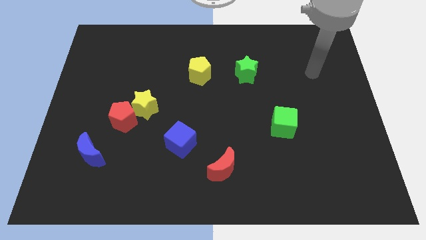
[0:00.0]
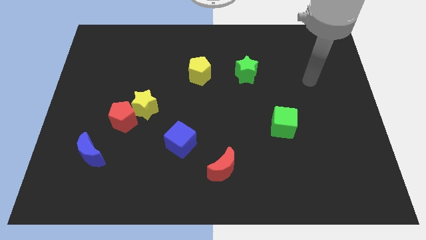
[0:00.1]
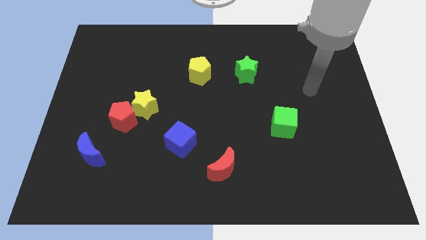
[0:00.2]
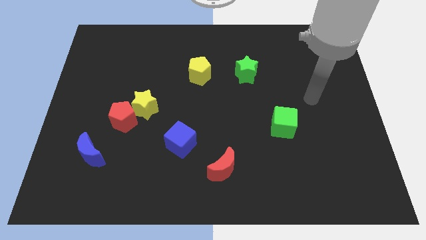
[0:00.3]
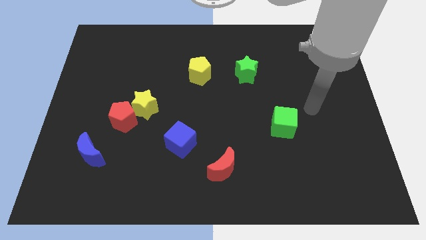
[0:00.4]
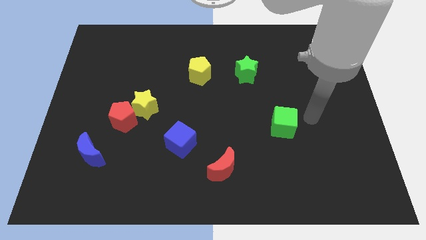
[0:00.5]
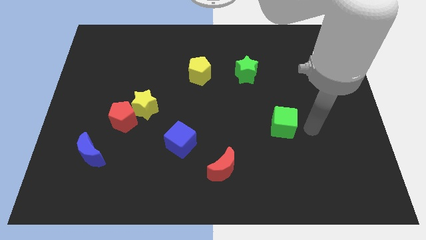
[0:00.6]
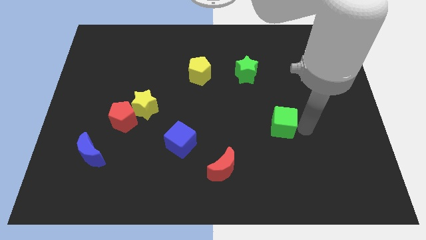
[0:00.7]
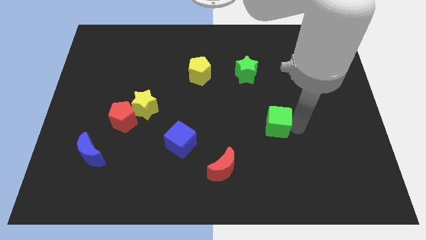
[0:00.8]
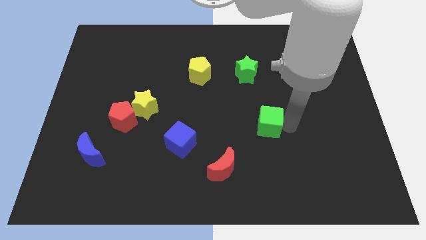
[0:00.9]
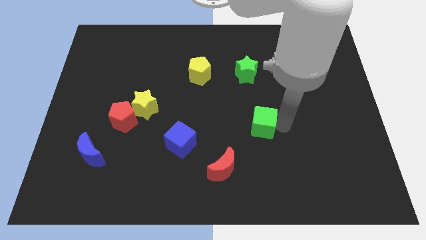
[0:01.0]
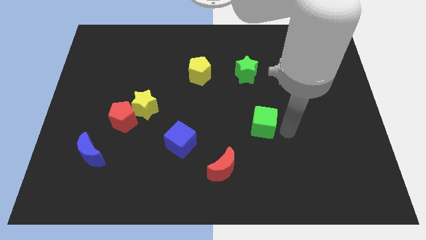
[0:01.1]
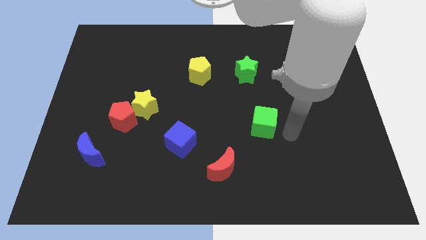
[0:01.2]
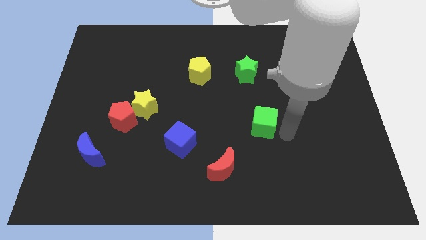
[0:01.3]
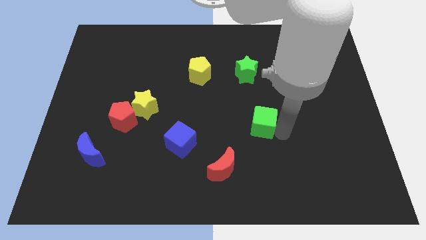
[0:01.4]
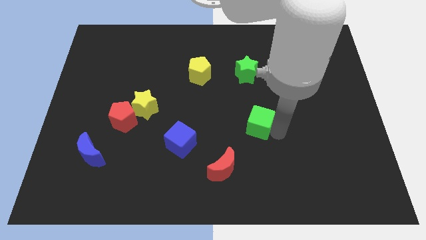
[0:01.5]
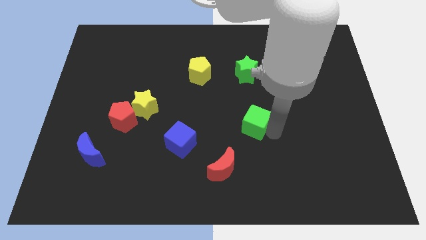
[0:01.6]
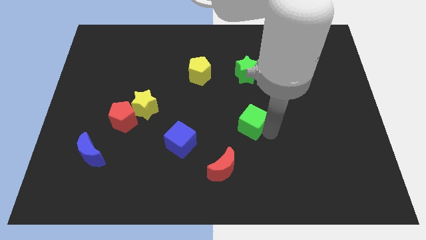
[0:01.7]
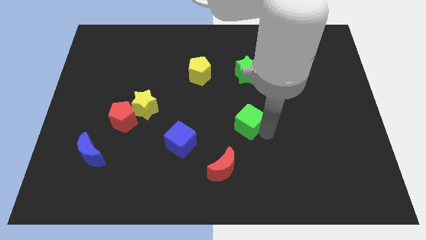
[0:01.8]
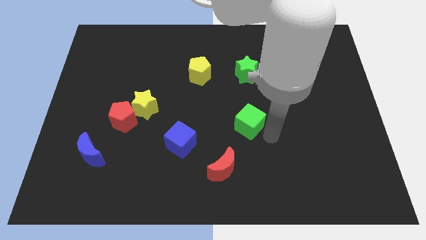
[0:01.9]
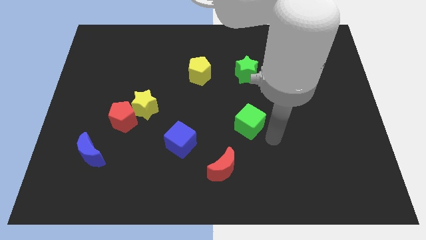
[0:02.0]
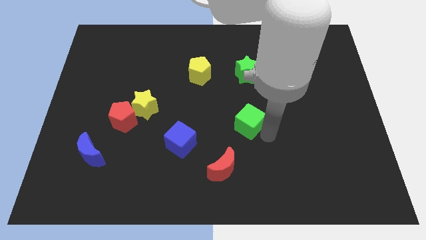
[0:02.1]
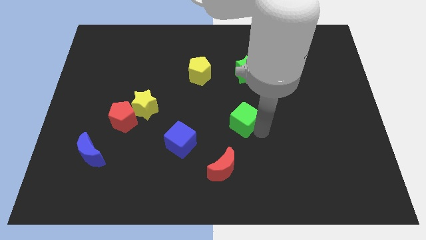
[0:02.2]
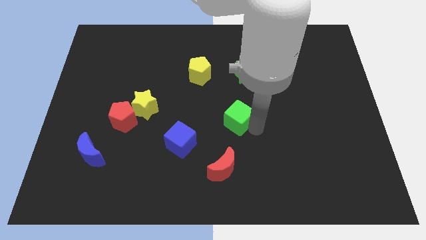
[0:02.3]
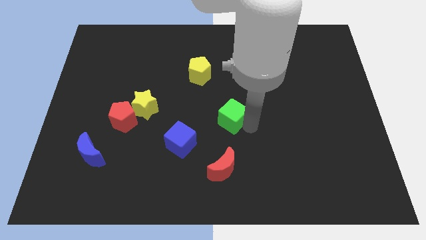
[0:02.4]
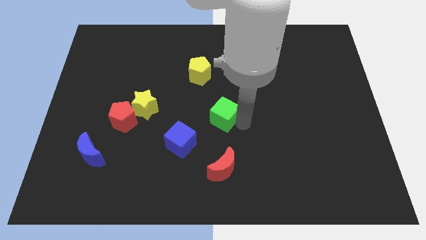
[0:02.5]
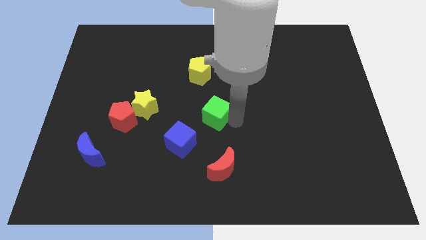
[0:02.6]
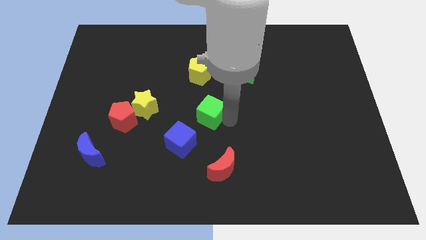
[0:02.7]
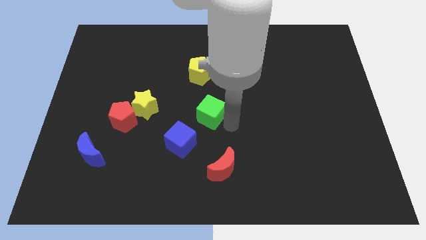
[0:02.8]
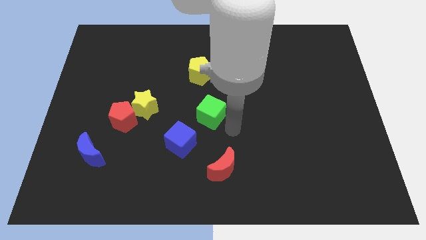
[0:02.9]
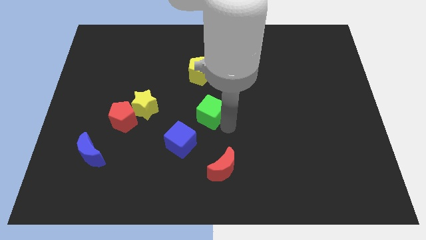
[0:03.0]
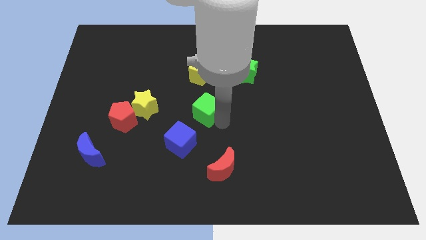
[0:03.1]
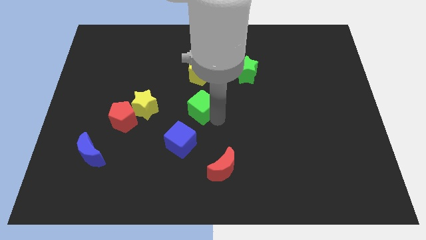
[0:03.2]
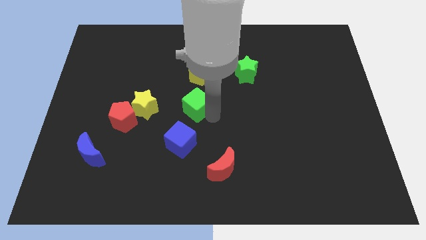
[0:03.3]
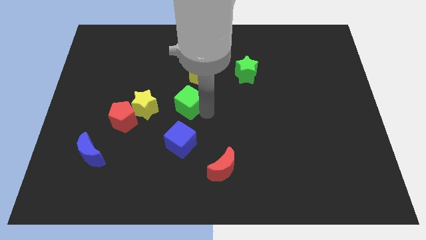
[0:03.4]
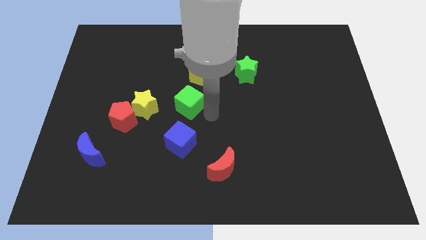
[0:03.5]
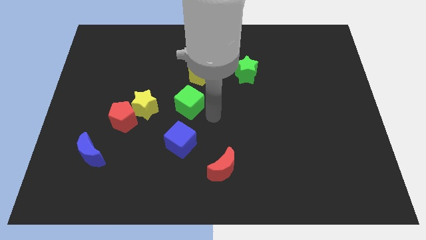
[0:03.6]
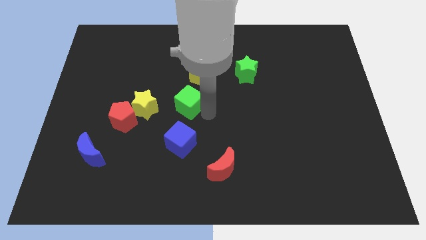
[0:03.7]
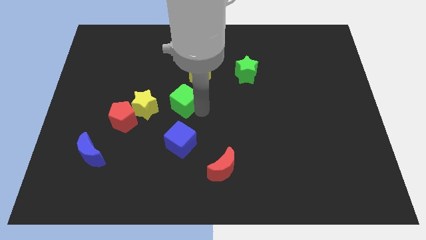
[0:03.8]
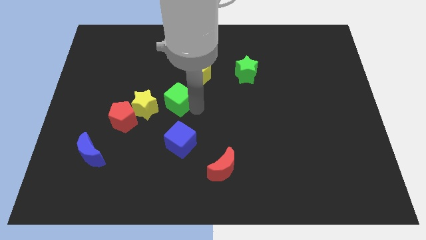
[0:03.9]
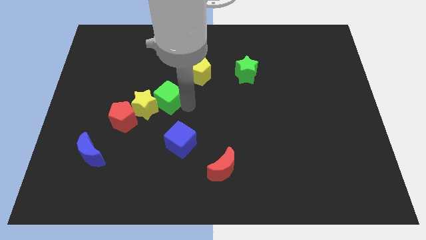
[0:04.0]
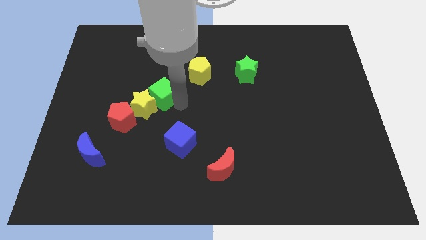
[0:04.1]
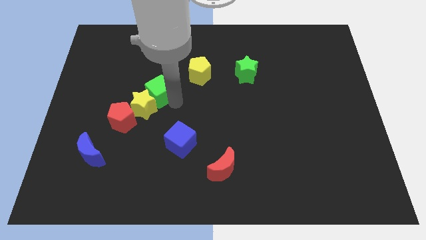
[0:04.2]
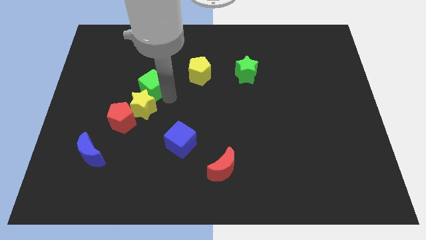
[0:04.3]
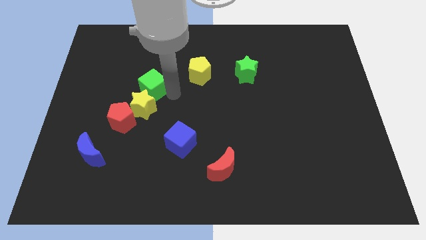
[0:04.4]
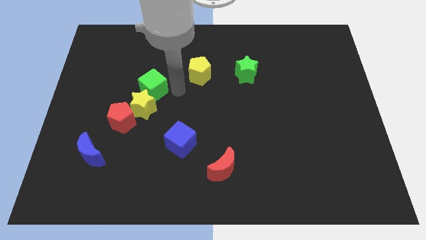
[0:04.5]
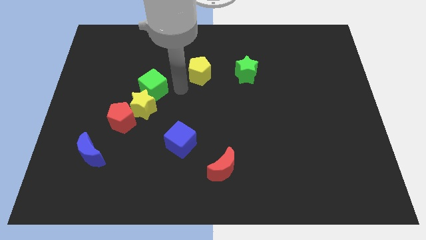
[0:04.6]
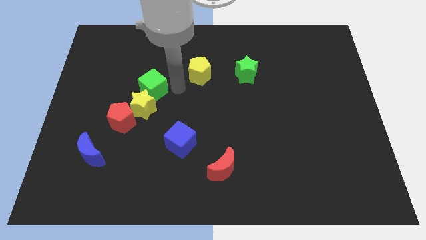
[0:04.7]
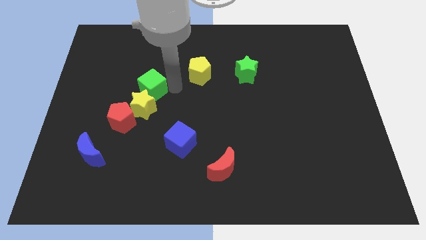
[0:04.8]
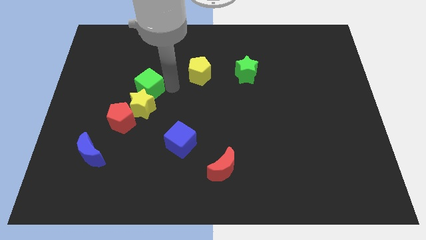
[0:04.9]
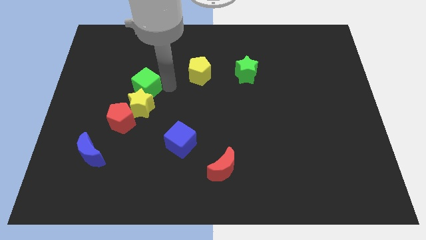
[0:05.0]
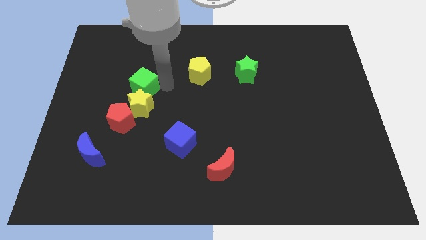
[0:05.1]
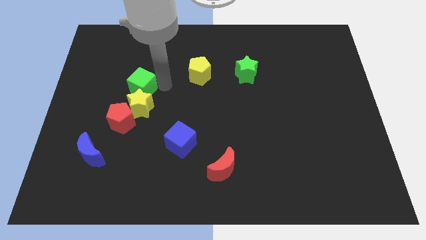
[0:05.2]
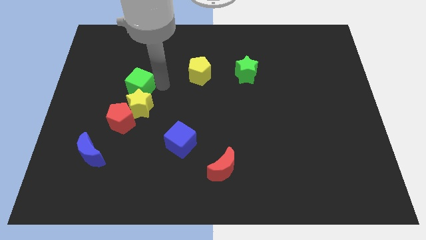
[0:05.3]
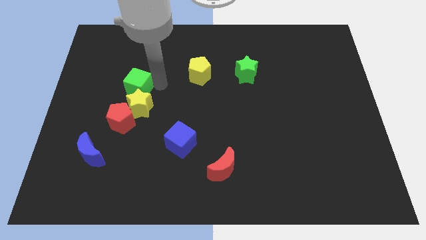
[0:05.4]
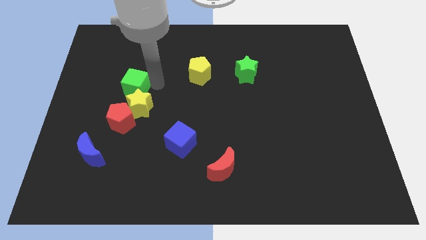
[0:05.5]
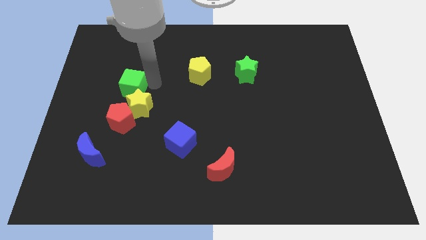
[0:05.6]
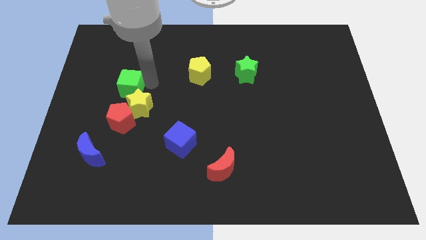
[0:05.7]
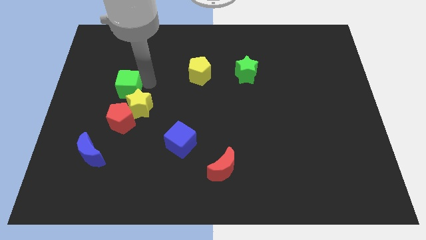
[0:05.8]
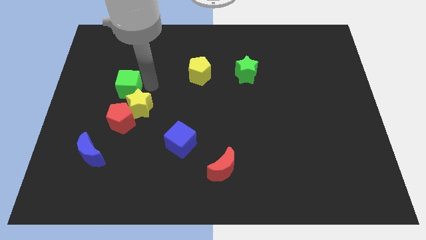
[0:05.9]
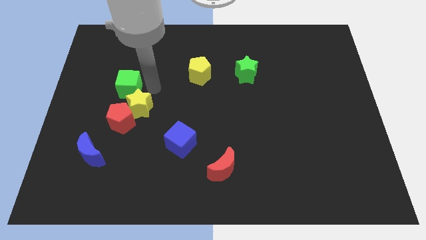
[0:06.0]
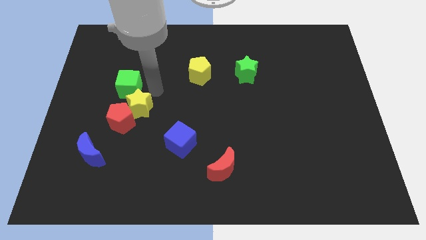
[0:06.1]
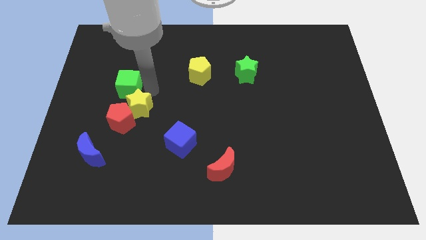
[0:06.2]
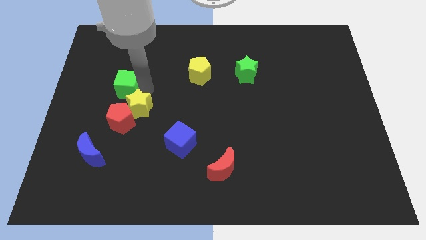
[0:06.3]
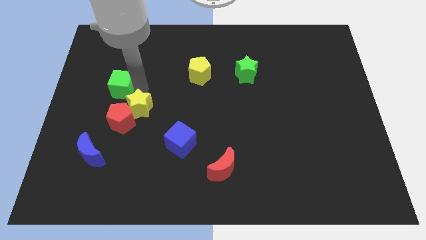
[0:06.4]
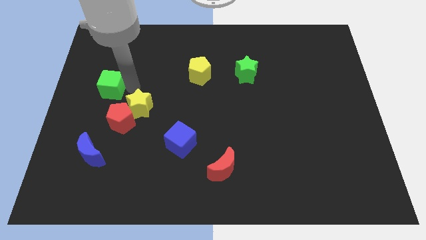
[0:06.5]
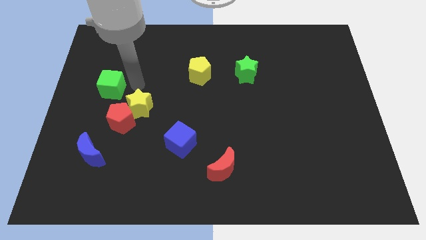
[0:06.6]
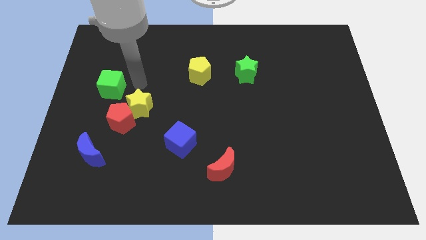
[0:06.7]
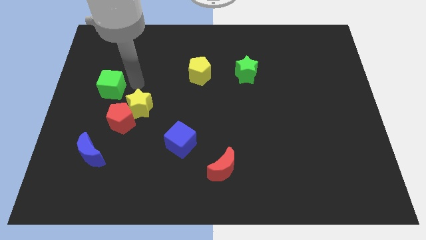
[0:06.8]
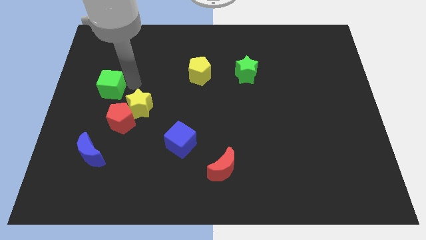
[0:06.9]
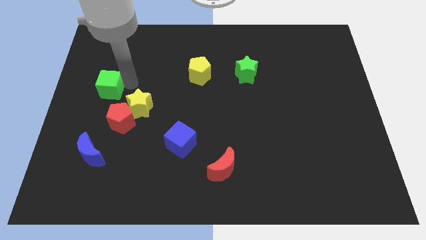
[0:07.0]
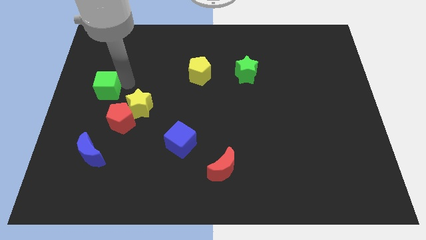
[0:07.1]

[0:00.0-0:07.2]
slide the green cube to the center left
